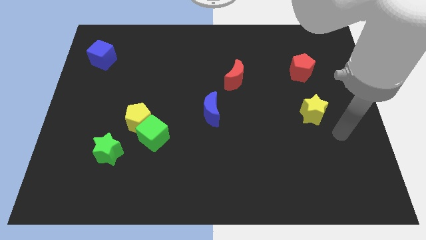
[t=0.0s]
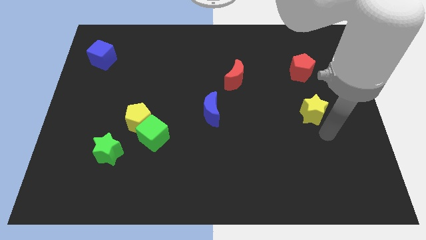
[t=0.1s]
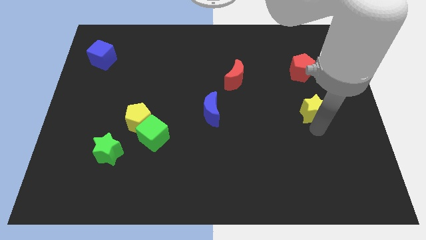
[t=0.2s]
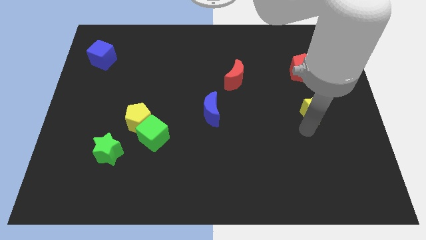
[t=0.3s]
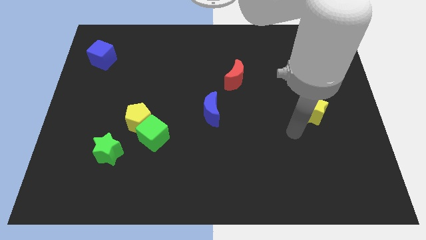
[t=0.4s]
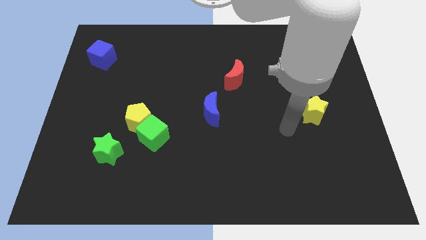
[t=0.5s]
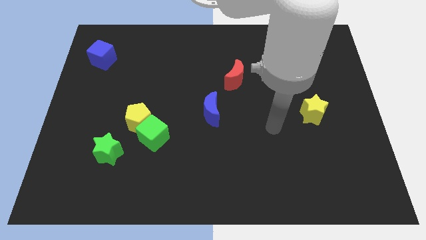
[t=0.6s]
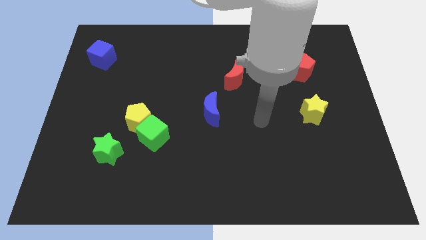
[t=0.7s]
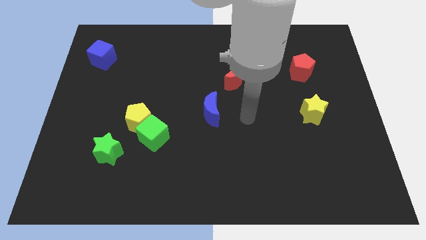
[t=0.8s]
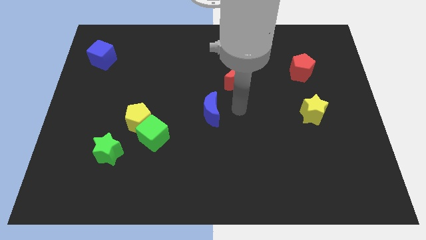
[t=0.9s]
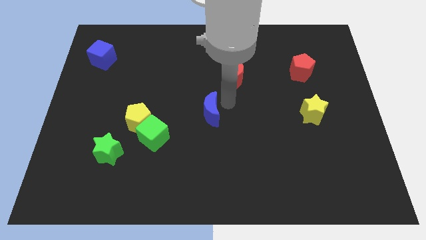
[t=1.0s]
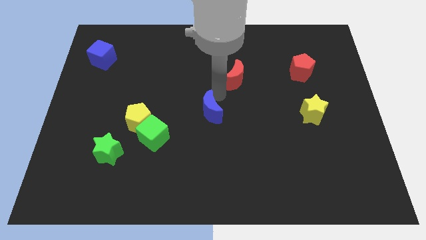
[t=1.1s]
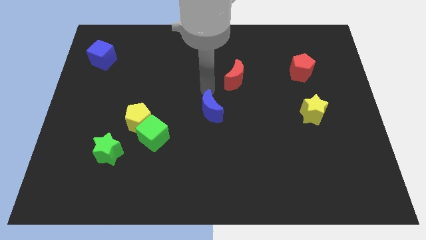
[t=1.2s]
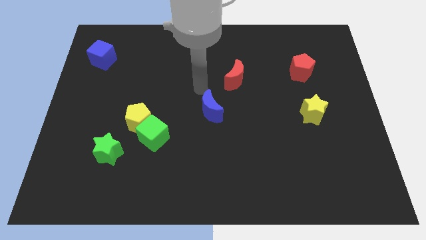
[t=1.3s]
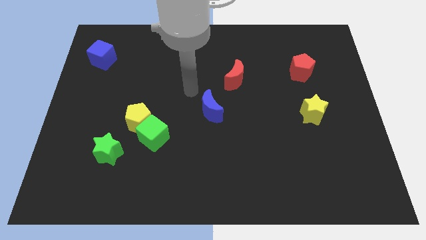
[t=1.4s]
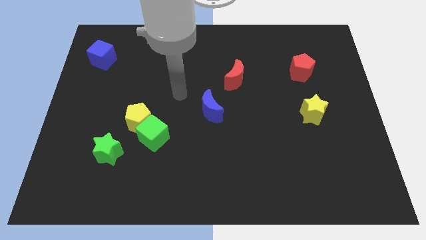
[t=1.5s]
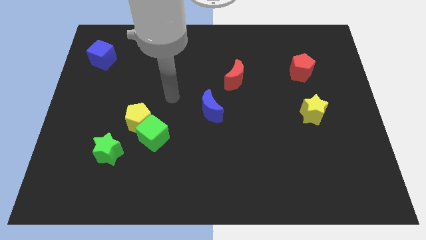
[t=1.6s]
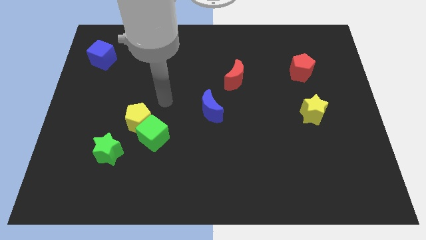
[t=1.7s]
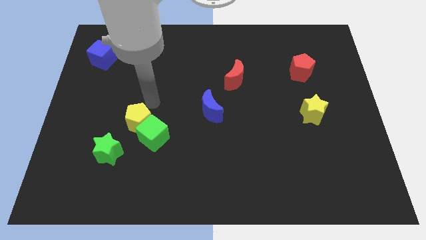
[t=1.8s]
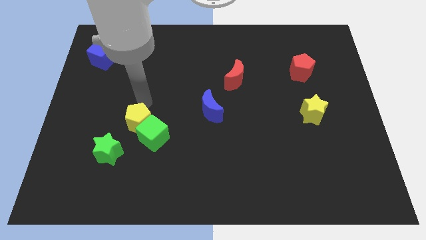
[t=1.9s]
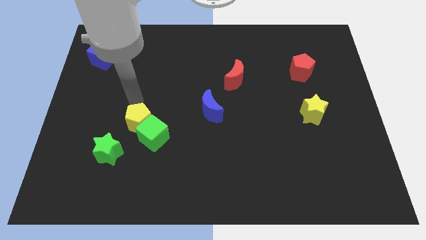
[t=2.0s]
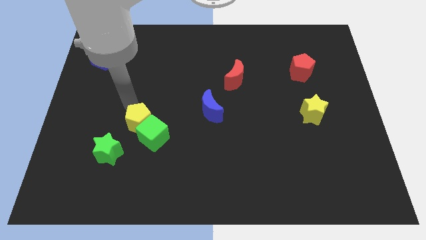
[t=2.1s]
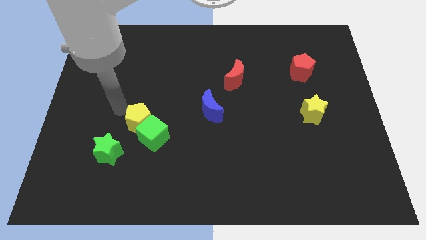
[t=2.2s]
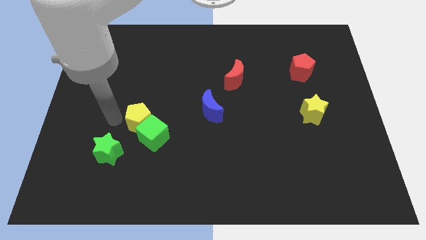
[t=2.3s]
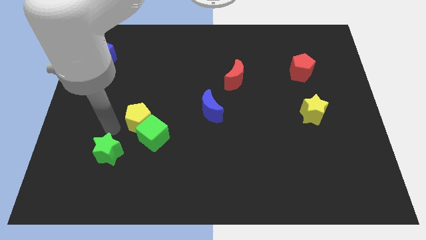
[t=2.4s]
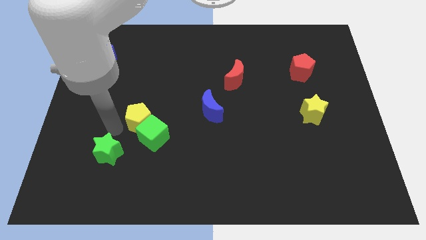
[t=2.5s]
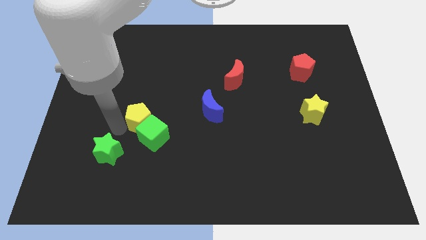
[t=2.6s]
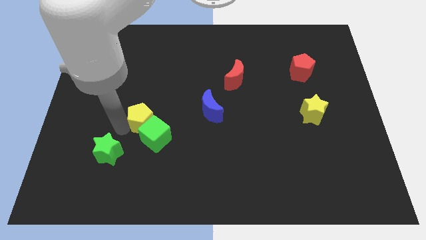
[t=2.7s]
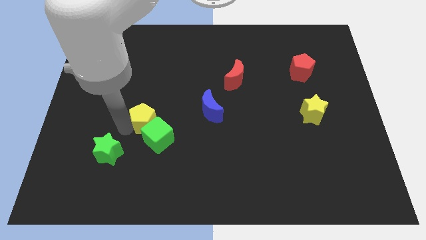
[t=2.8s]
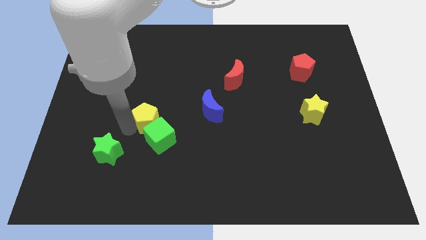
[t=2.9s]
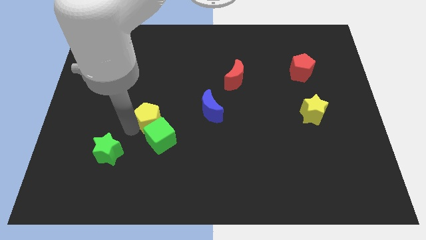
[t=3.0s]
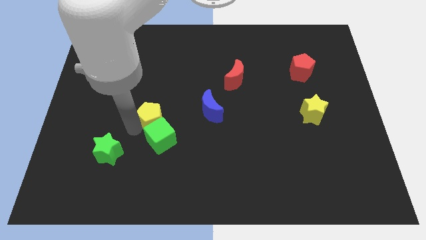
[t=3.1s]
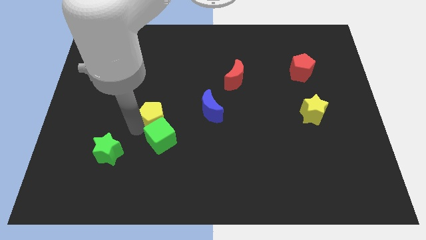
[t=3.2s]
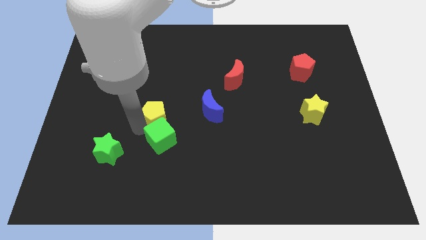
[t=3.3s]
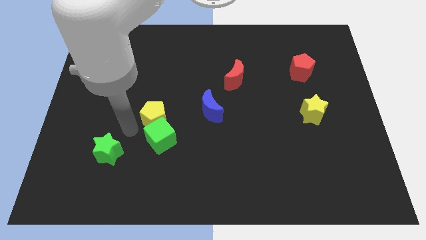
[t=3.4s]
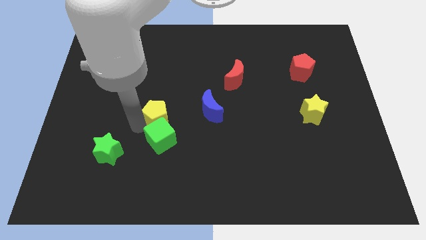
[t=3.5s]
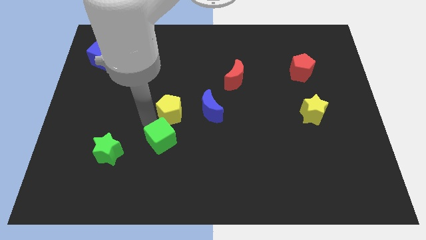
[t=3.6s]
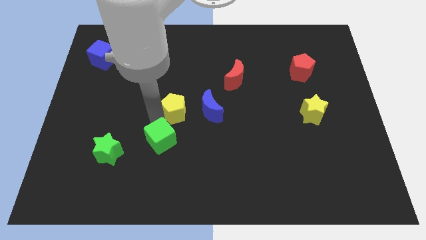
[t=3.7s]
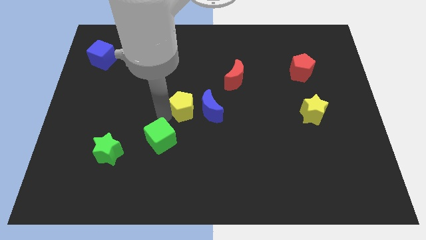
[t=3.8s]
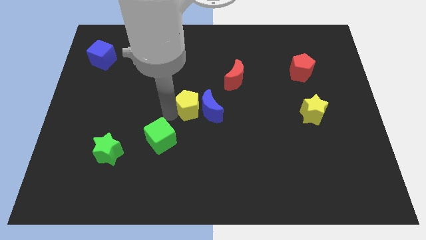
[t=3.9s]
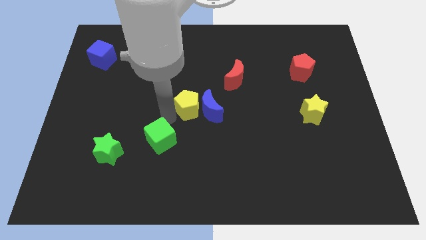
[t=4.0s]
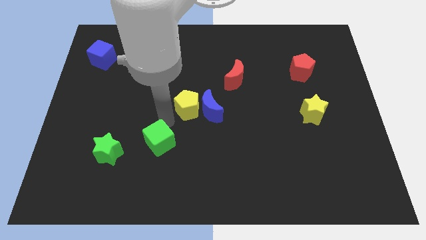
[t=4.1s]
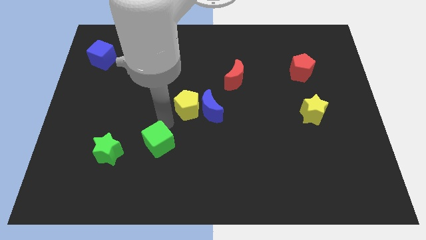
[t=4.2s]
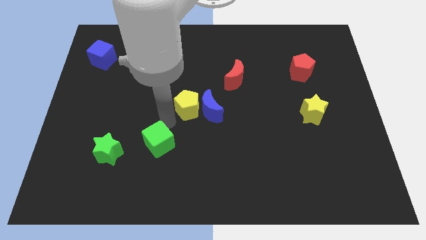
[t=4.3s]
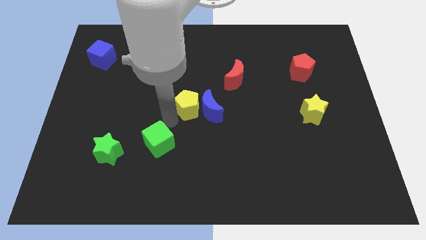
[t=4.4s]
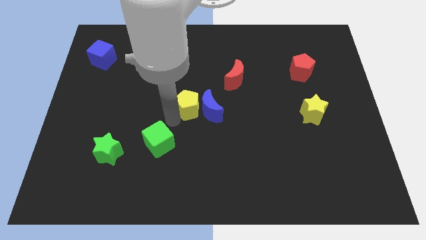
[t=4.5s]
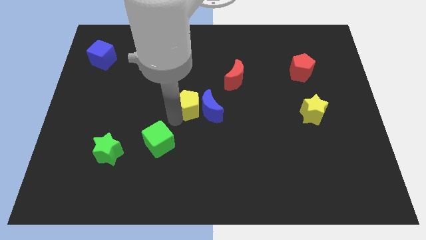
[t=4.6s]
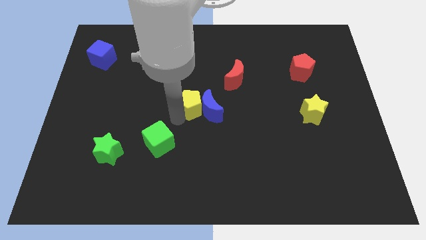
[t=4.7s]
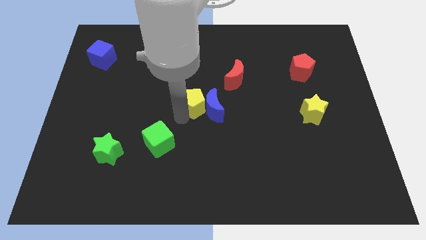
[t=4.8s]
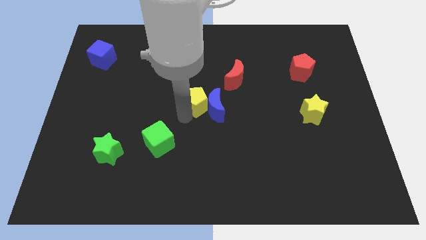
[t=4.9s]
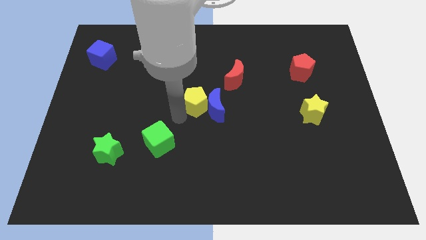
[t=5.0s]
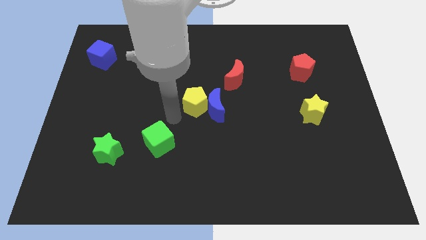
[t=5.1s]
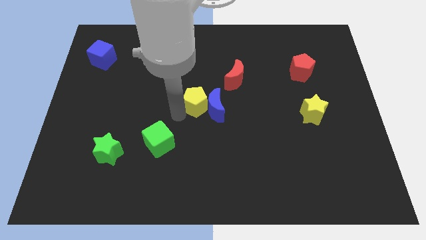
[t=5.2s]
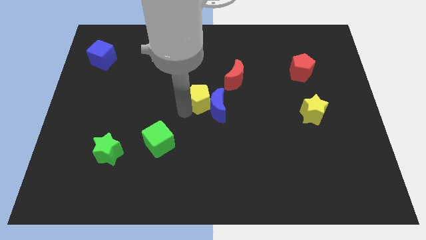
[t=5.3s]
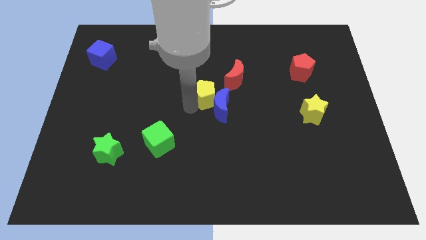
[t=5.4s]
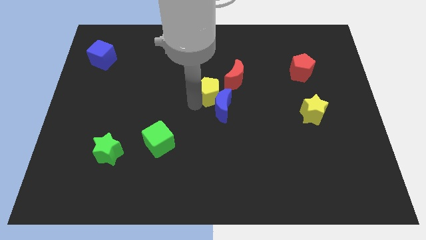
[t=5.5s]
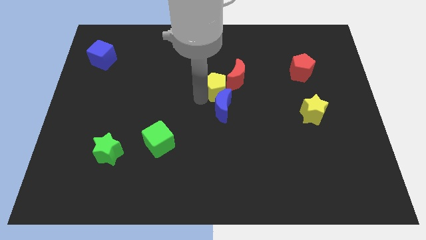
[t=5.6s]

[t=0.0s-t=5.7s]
slide the yellow pentagon to the top right side of the blue moon

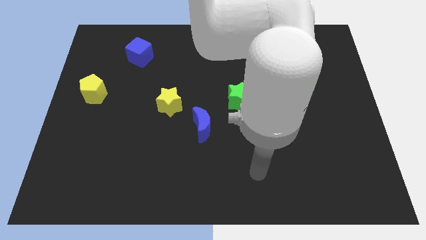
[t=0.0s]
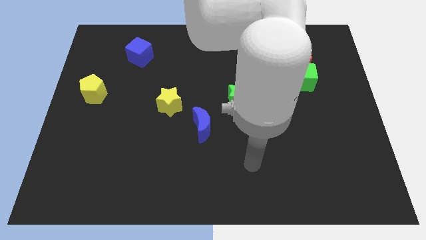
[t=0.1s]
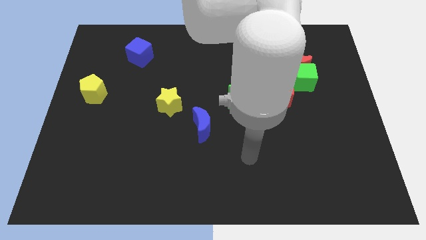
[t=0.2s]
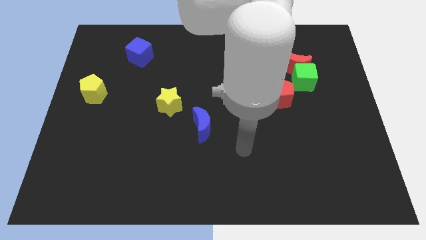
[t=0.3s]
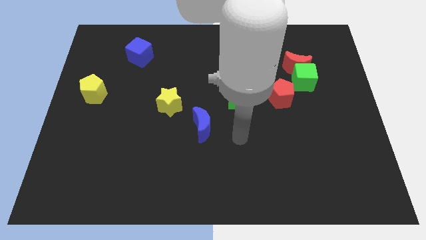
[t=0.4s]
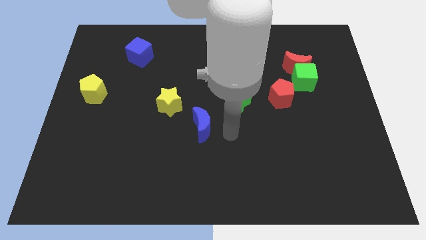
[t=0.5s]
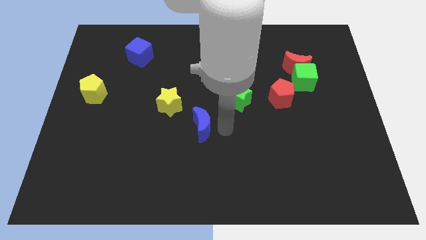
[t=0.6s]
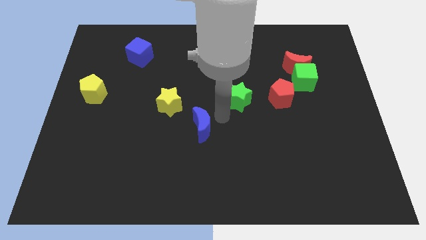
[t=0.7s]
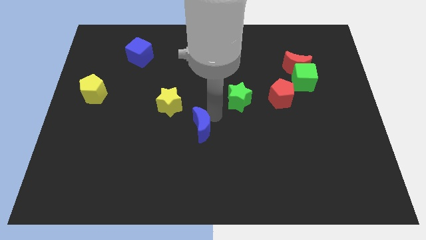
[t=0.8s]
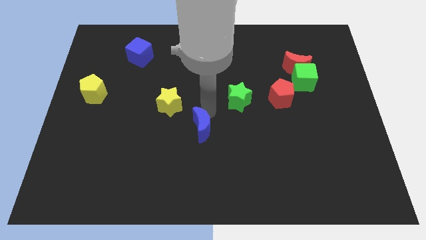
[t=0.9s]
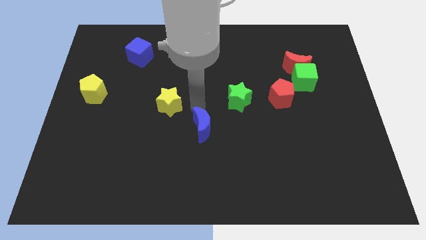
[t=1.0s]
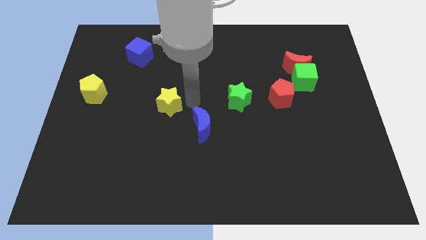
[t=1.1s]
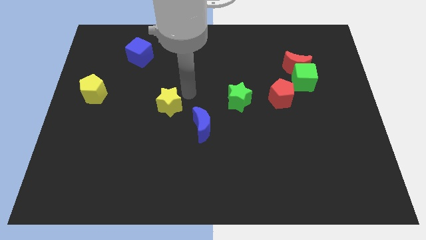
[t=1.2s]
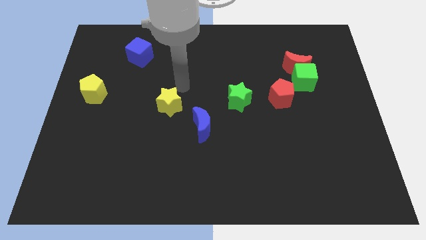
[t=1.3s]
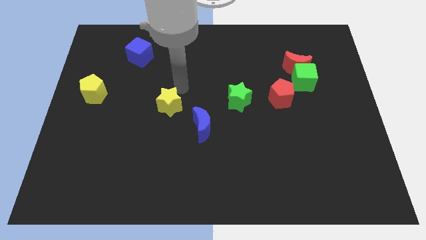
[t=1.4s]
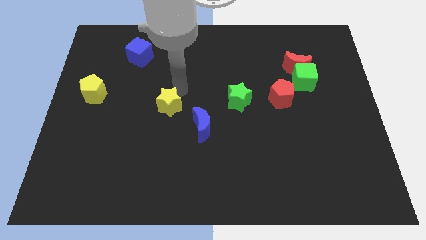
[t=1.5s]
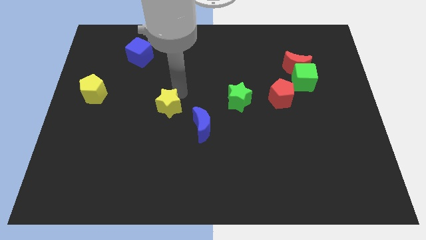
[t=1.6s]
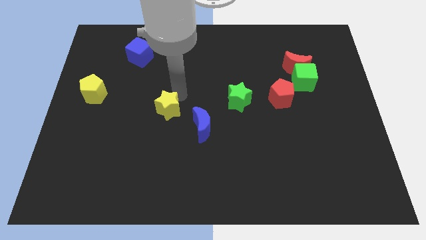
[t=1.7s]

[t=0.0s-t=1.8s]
put the yellow star to the left side of the blue moon
